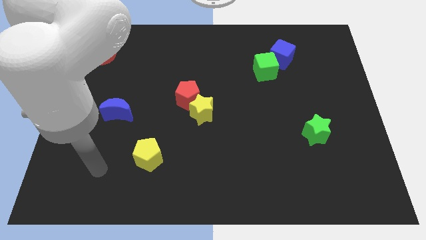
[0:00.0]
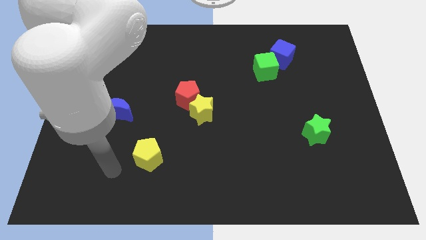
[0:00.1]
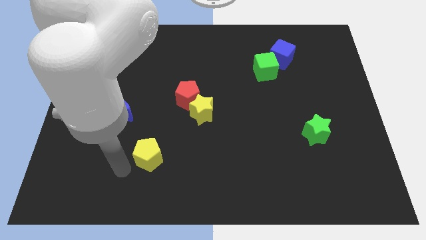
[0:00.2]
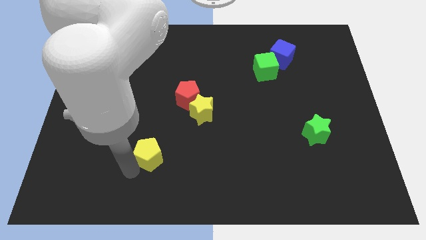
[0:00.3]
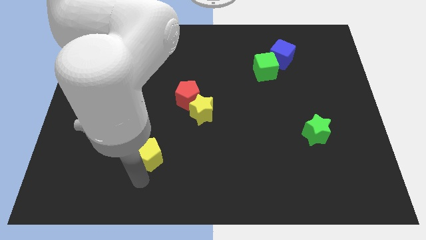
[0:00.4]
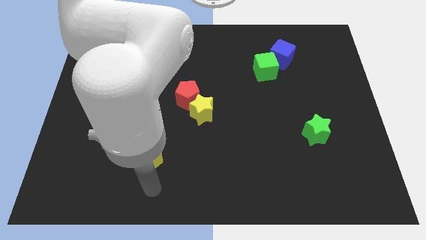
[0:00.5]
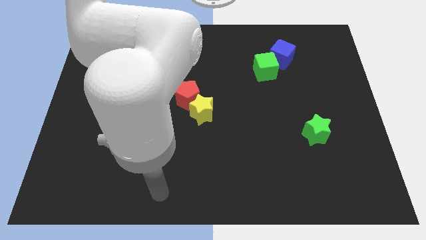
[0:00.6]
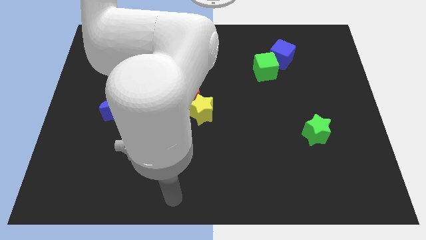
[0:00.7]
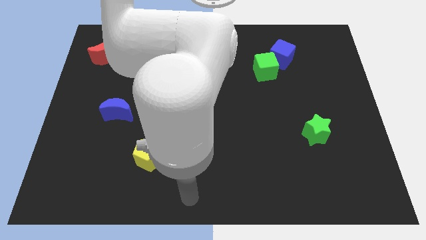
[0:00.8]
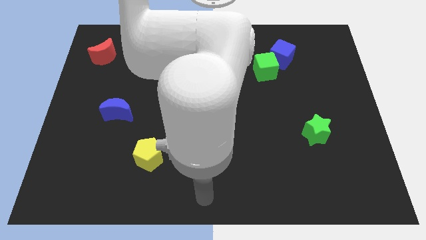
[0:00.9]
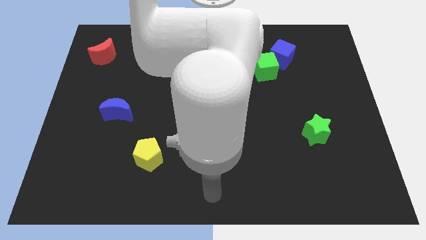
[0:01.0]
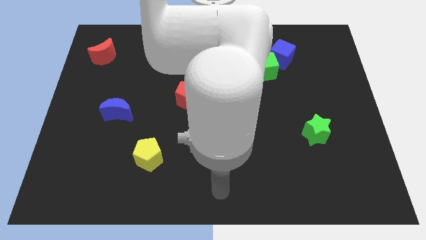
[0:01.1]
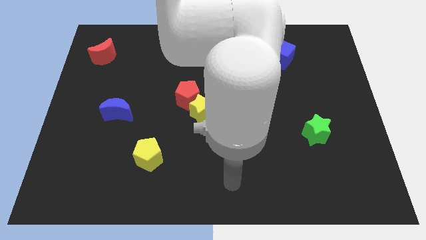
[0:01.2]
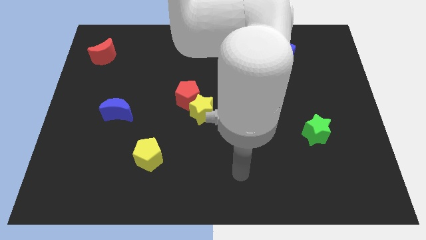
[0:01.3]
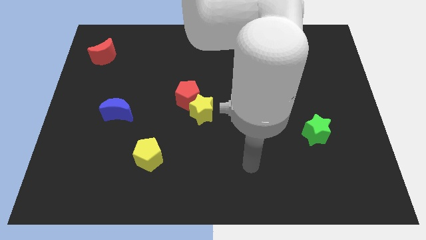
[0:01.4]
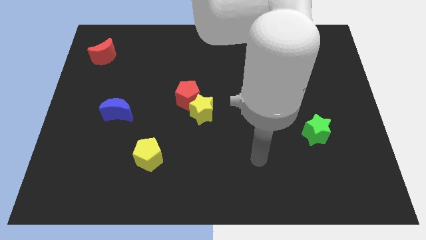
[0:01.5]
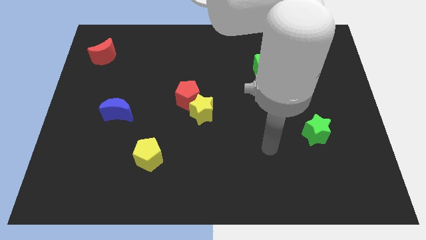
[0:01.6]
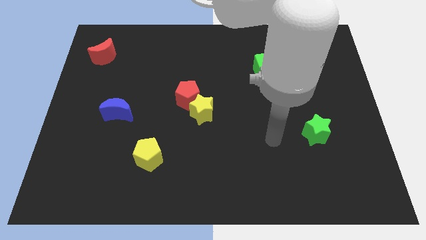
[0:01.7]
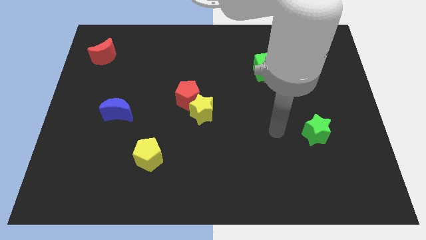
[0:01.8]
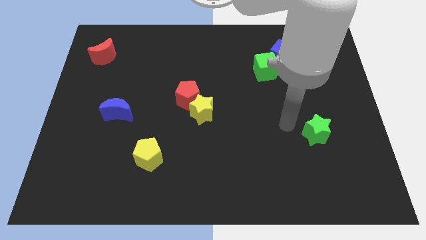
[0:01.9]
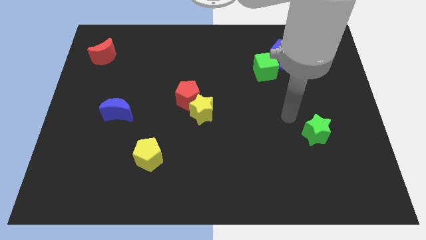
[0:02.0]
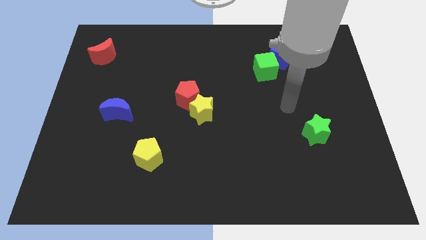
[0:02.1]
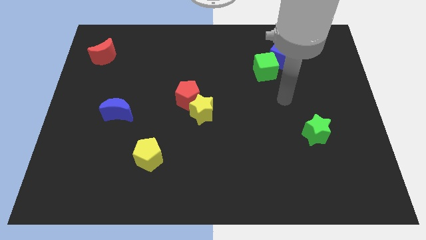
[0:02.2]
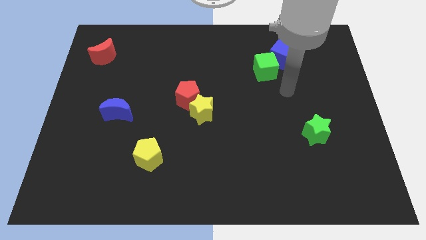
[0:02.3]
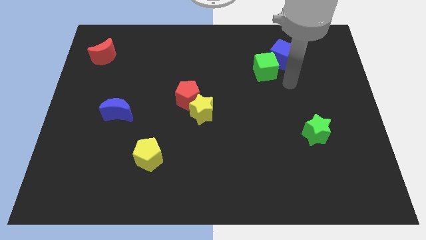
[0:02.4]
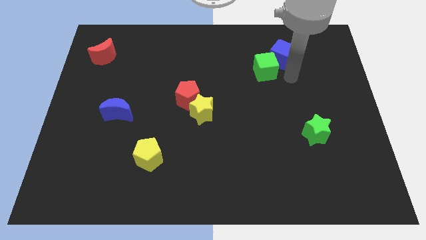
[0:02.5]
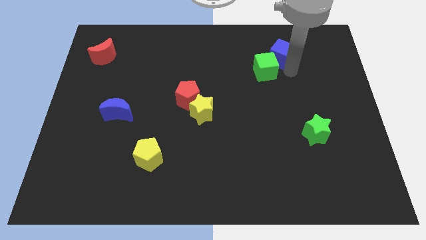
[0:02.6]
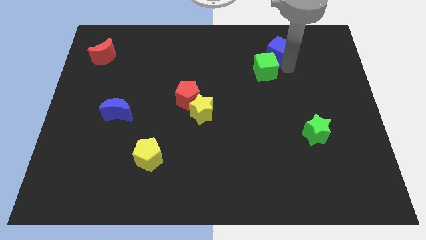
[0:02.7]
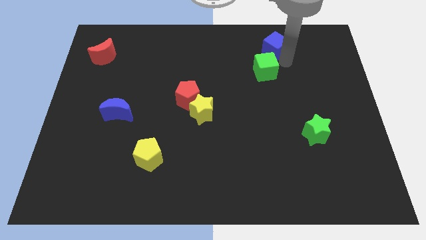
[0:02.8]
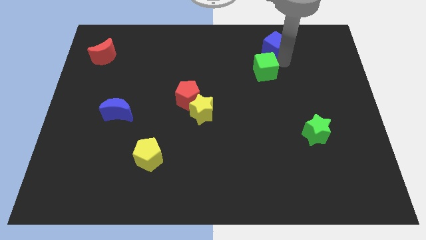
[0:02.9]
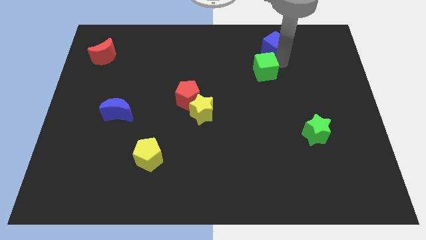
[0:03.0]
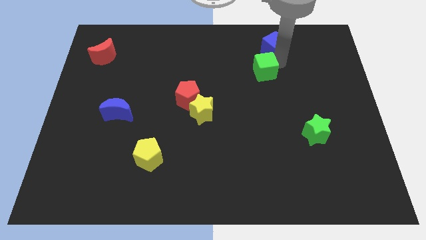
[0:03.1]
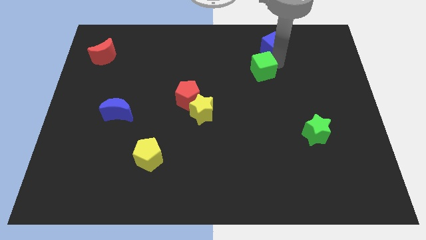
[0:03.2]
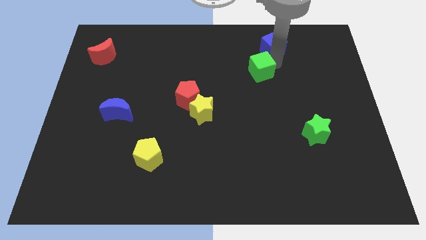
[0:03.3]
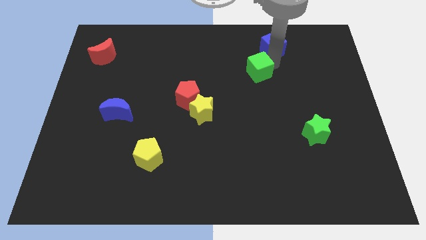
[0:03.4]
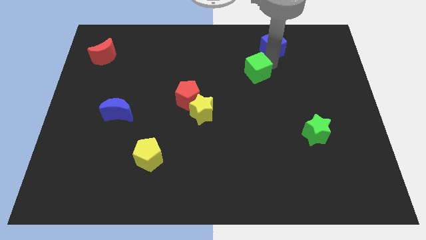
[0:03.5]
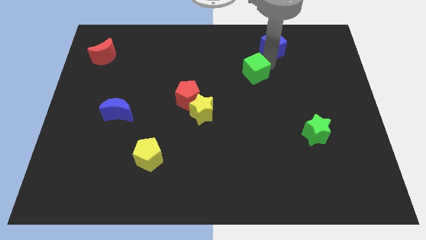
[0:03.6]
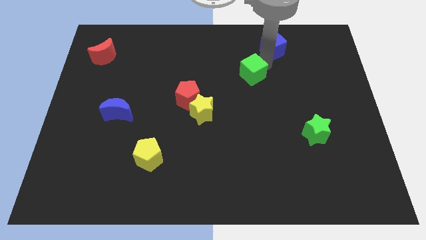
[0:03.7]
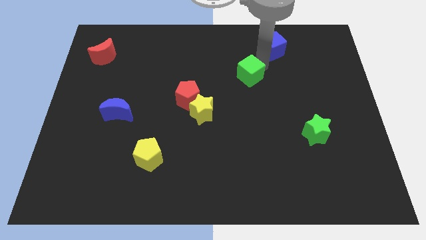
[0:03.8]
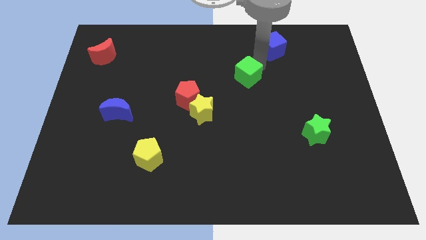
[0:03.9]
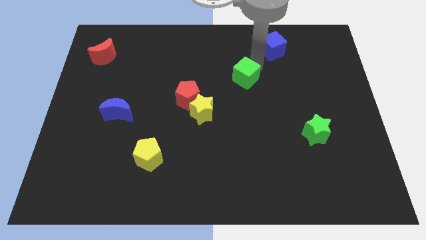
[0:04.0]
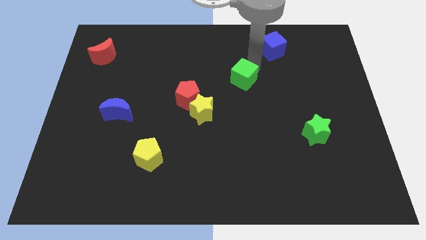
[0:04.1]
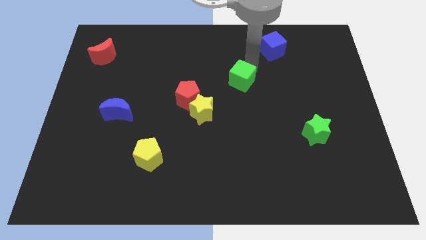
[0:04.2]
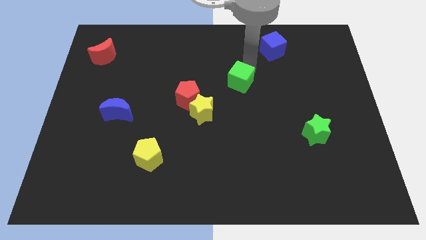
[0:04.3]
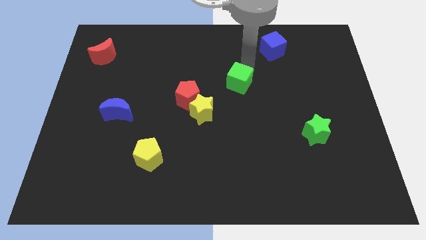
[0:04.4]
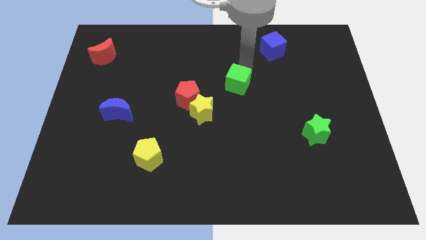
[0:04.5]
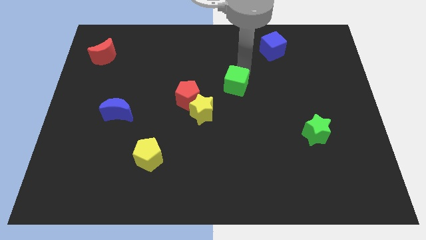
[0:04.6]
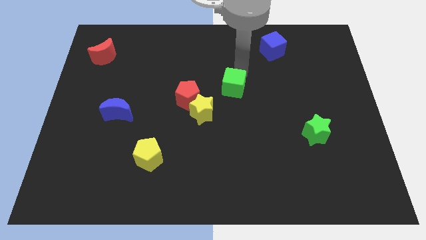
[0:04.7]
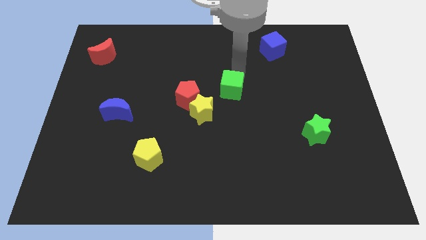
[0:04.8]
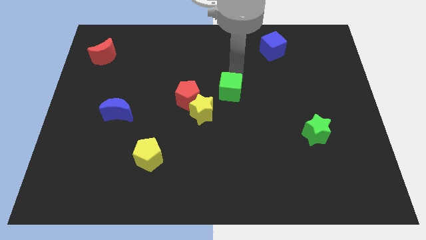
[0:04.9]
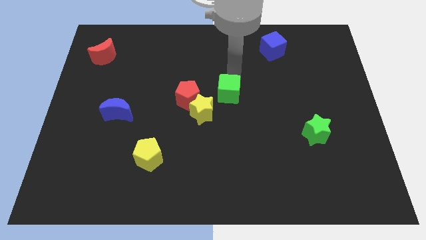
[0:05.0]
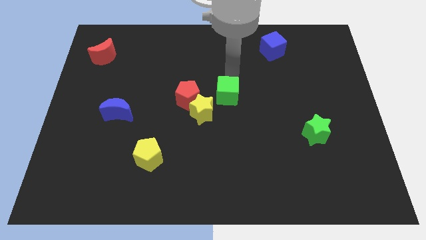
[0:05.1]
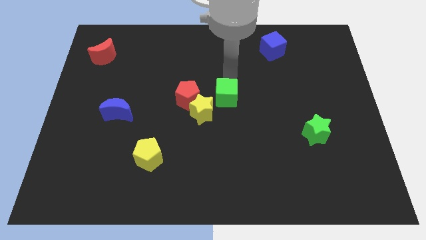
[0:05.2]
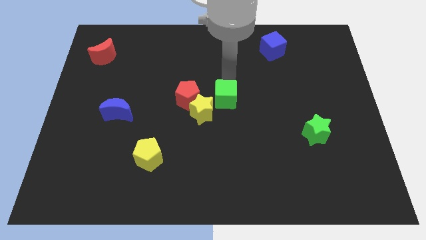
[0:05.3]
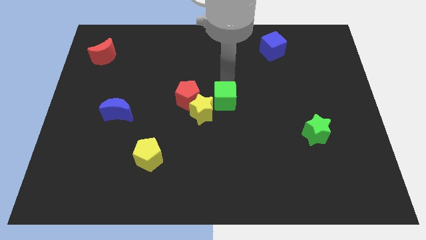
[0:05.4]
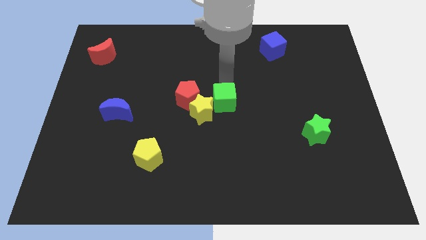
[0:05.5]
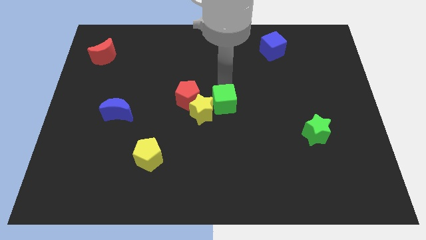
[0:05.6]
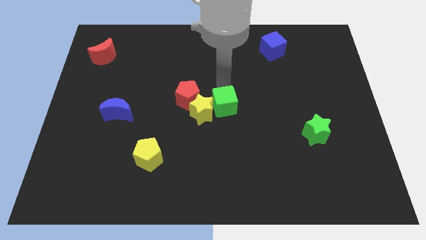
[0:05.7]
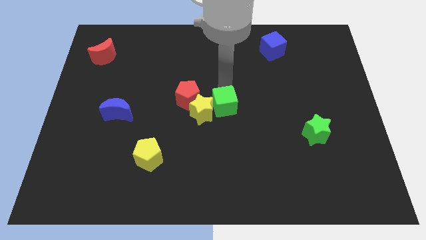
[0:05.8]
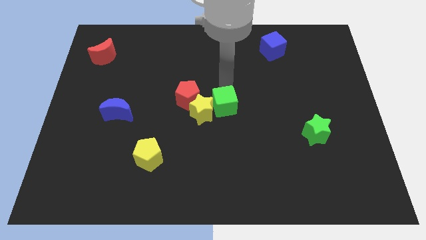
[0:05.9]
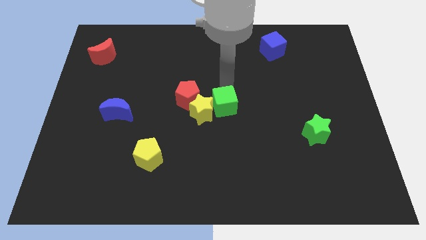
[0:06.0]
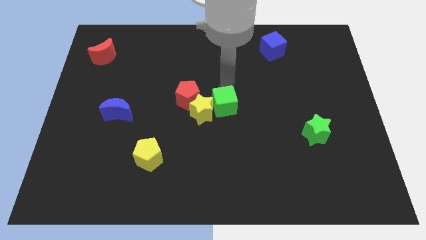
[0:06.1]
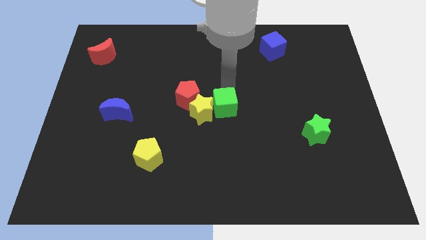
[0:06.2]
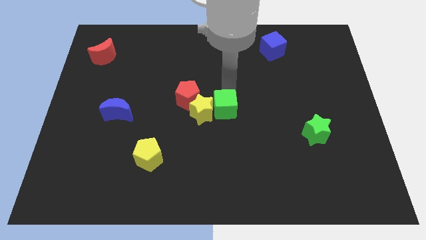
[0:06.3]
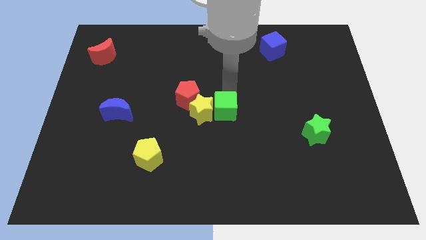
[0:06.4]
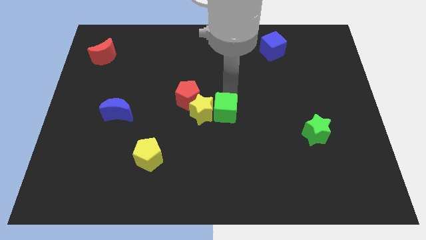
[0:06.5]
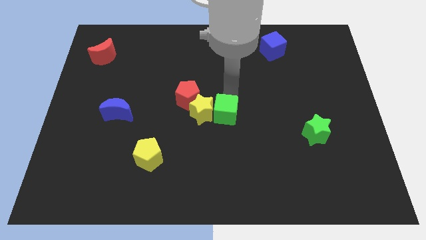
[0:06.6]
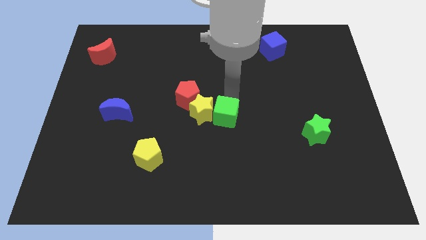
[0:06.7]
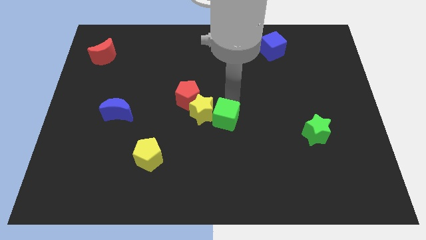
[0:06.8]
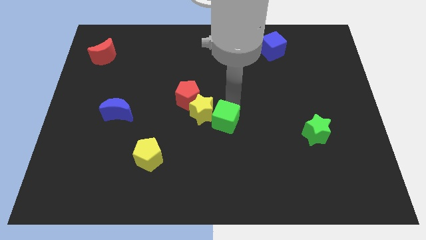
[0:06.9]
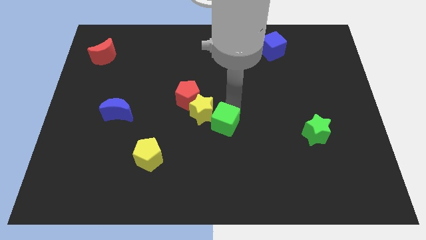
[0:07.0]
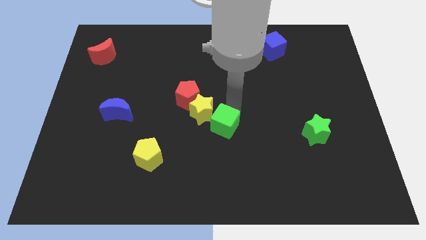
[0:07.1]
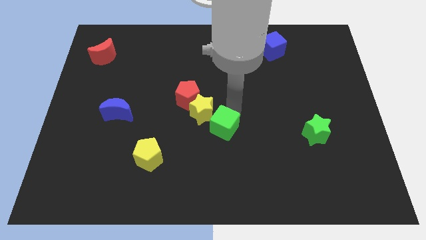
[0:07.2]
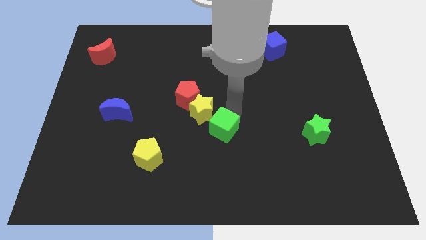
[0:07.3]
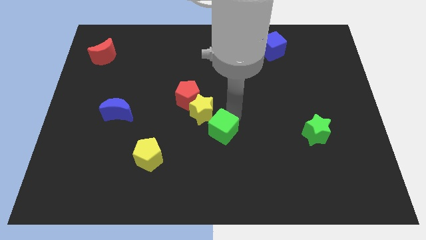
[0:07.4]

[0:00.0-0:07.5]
slide the green cube downwards and then left

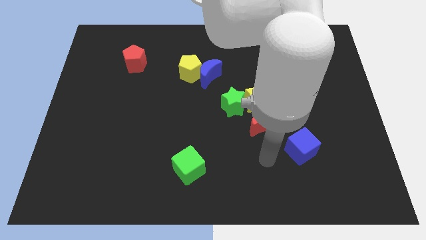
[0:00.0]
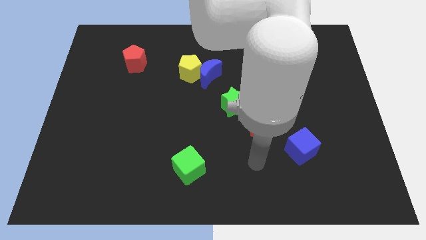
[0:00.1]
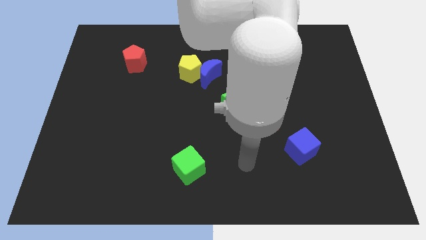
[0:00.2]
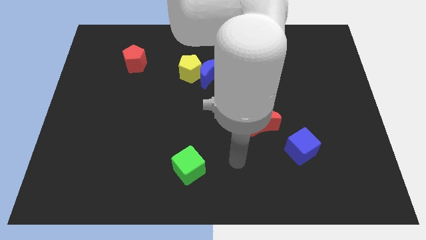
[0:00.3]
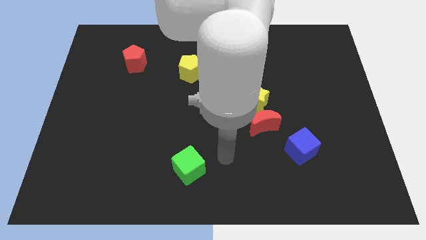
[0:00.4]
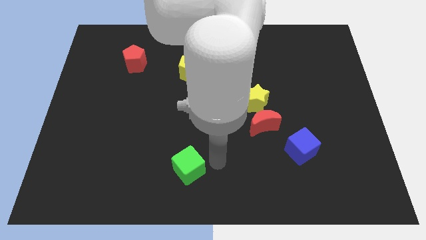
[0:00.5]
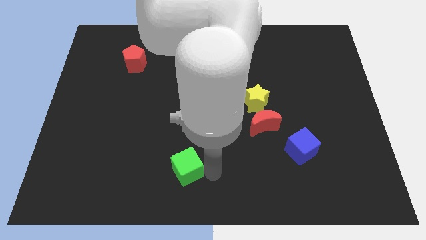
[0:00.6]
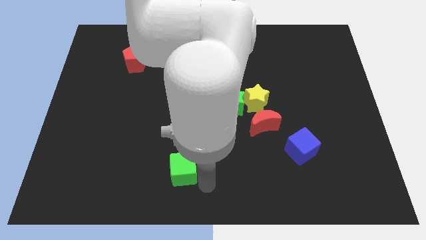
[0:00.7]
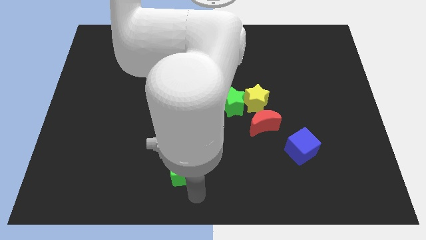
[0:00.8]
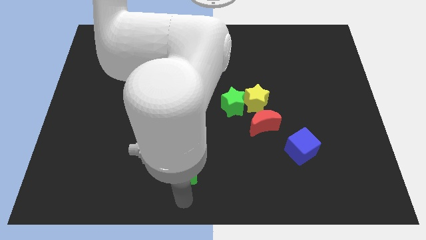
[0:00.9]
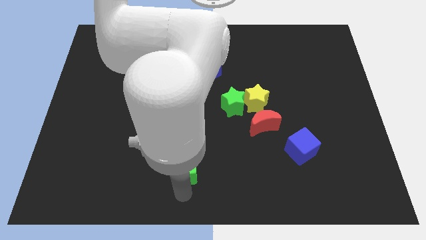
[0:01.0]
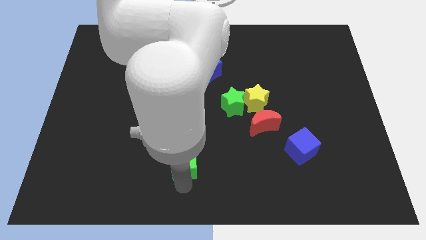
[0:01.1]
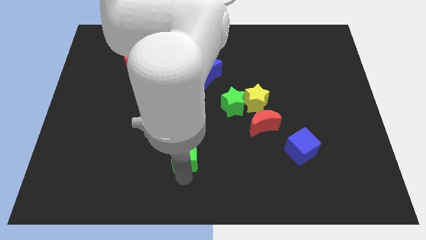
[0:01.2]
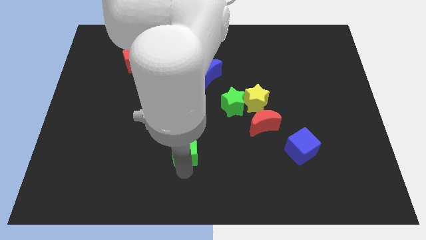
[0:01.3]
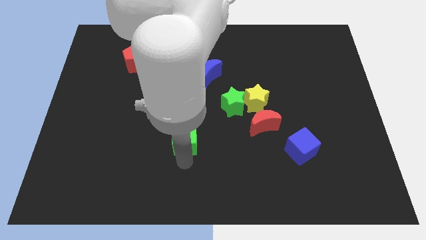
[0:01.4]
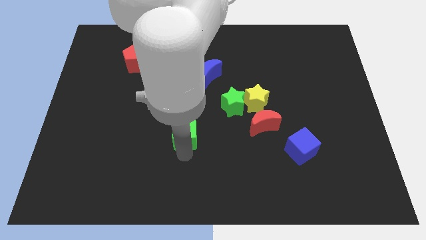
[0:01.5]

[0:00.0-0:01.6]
slightly push the green cube up
